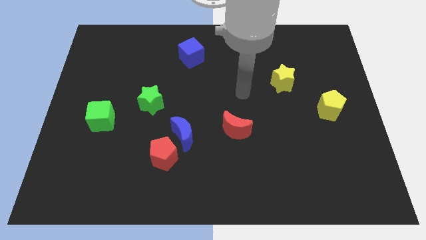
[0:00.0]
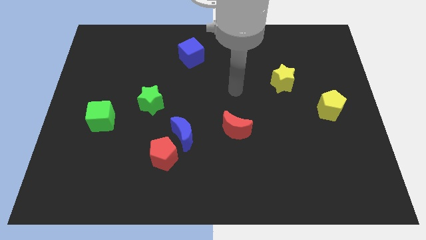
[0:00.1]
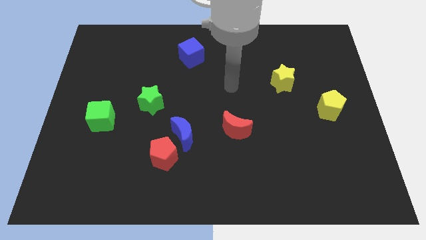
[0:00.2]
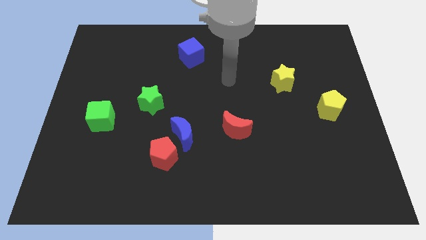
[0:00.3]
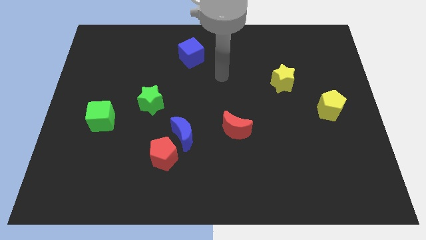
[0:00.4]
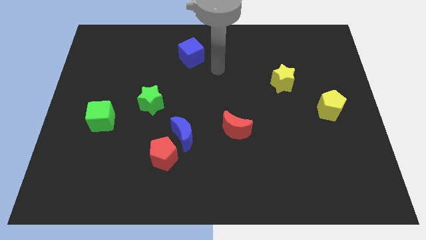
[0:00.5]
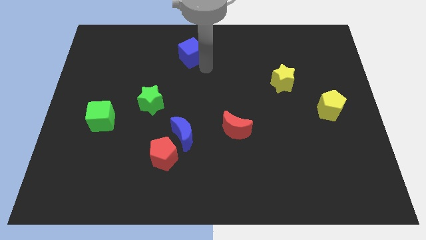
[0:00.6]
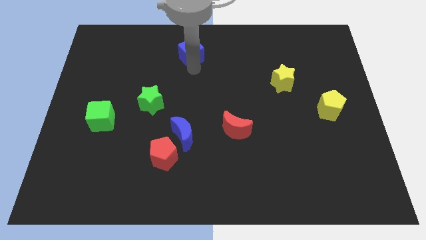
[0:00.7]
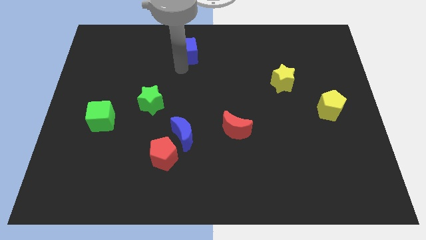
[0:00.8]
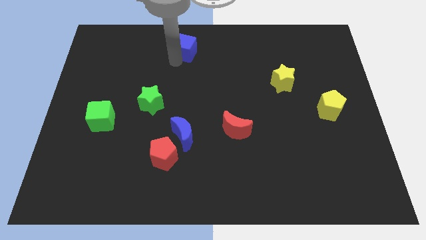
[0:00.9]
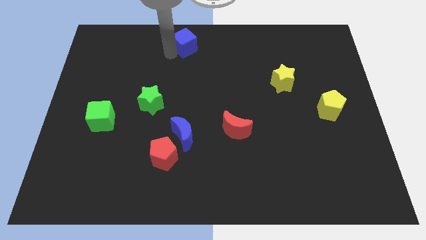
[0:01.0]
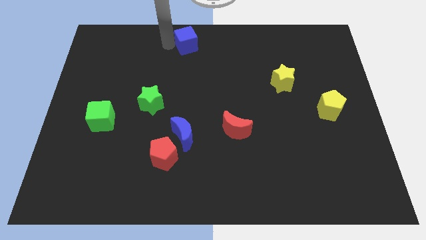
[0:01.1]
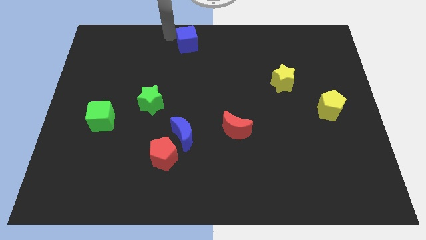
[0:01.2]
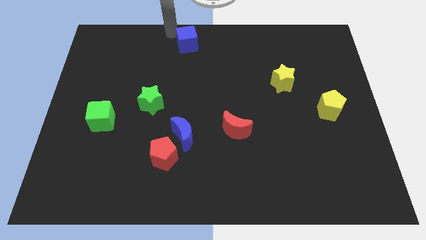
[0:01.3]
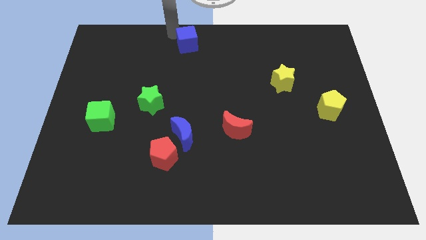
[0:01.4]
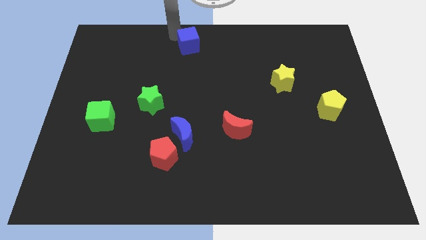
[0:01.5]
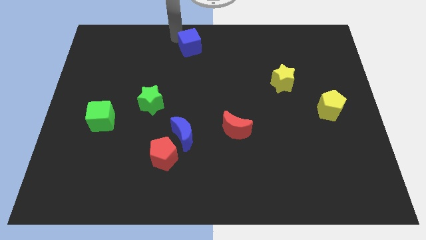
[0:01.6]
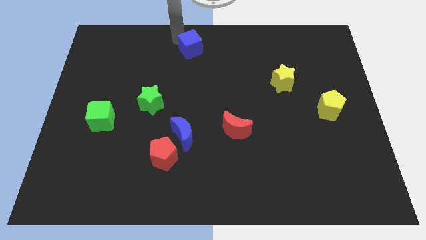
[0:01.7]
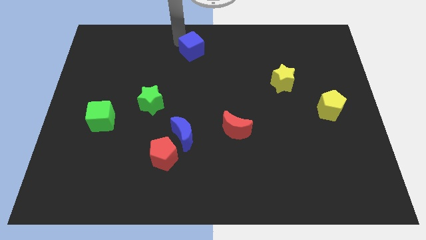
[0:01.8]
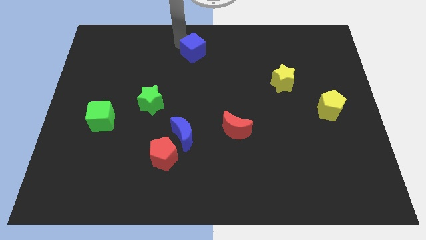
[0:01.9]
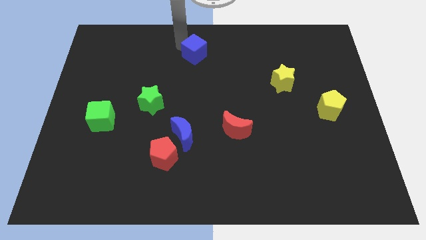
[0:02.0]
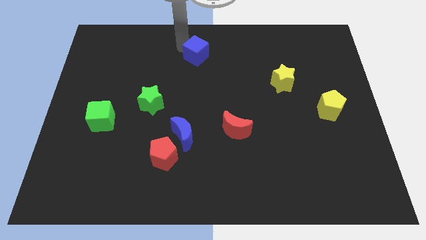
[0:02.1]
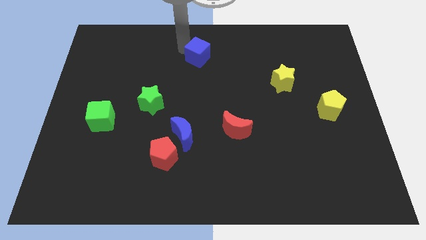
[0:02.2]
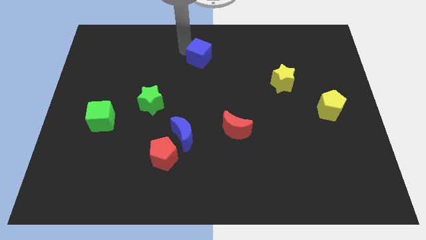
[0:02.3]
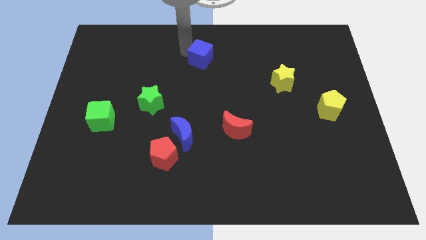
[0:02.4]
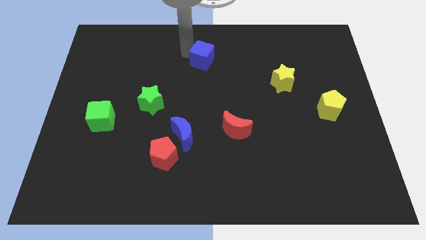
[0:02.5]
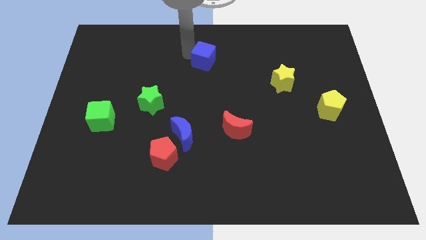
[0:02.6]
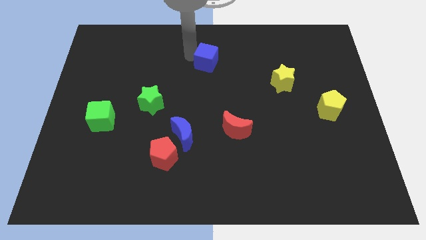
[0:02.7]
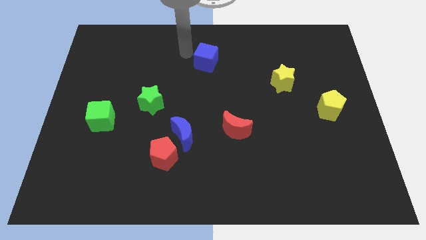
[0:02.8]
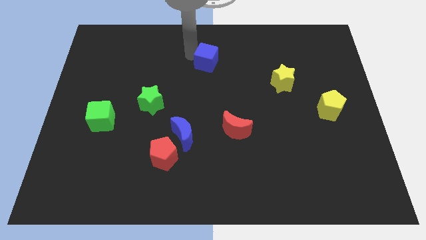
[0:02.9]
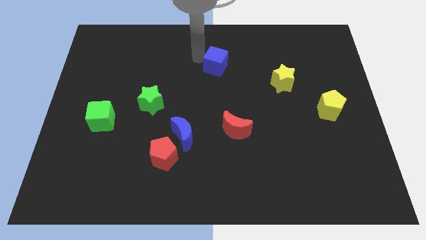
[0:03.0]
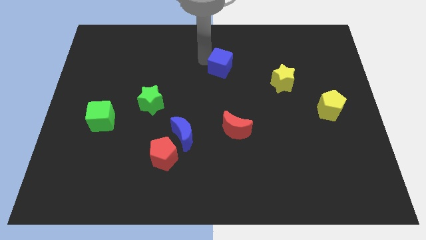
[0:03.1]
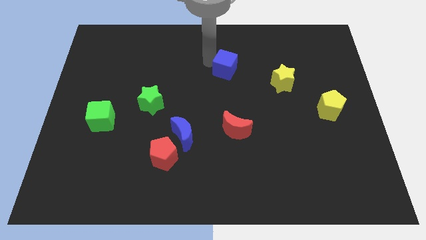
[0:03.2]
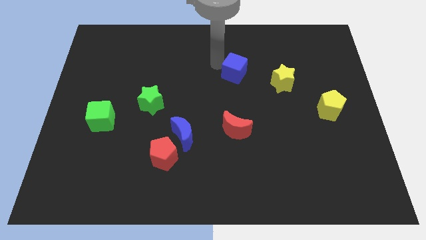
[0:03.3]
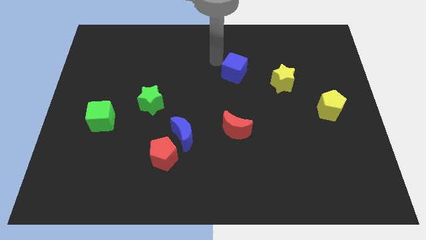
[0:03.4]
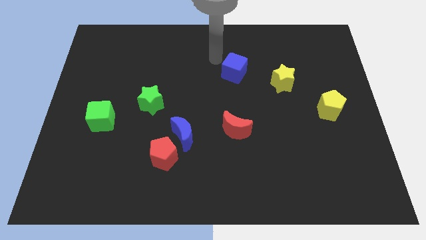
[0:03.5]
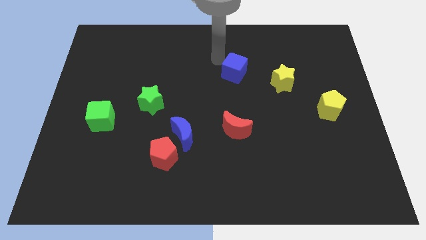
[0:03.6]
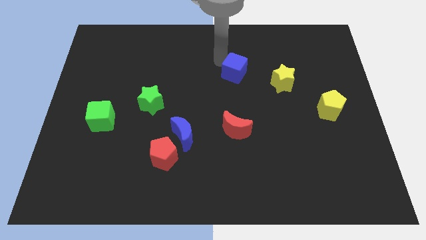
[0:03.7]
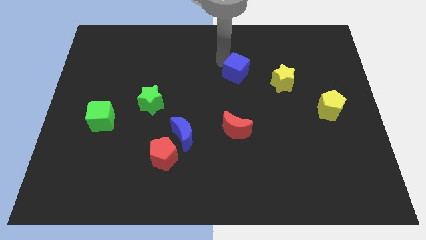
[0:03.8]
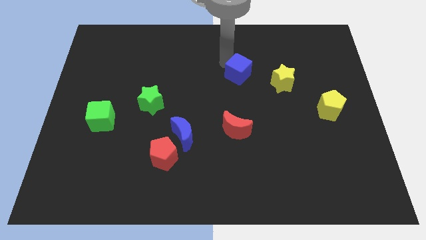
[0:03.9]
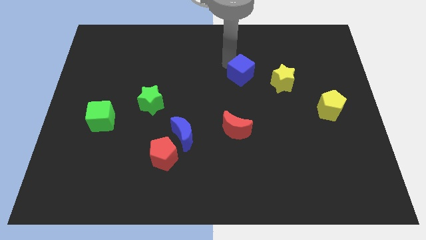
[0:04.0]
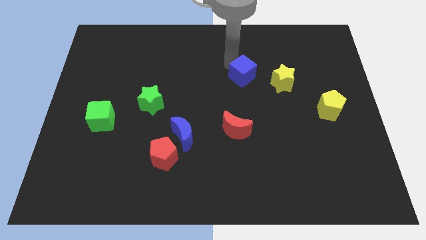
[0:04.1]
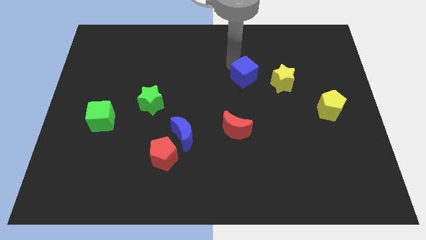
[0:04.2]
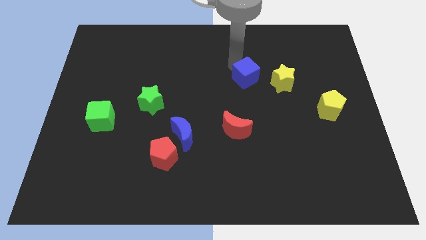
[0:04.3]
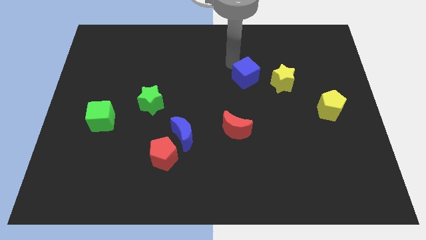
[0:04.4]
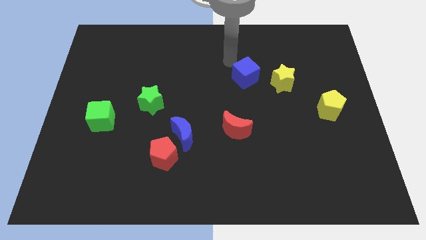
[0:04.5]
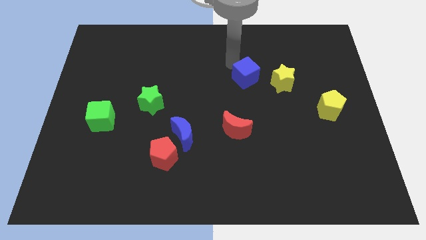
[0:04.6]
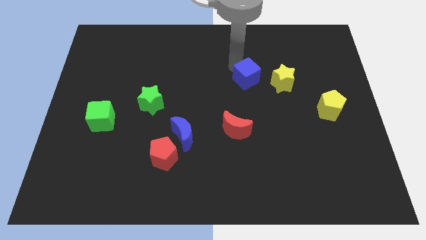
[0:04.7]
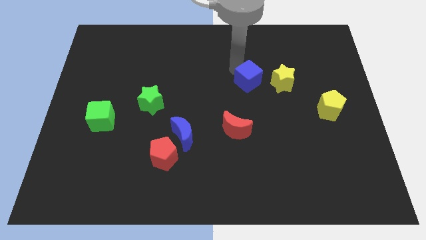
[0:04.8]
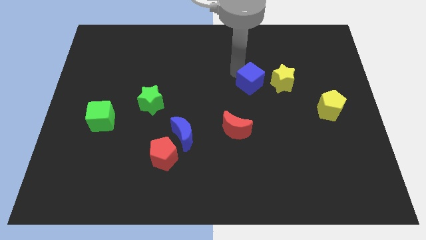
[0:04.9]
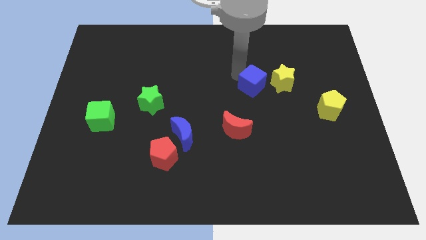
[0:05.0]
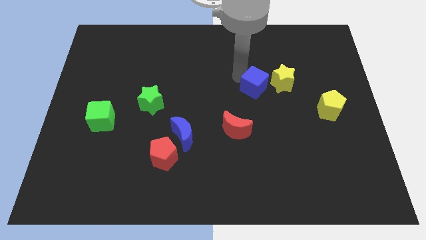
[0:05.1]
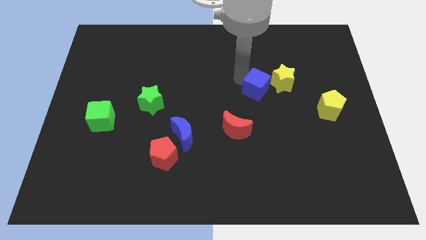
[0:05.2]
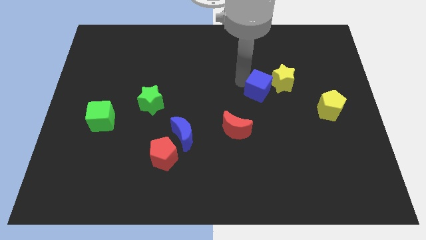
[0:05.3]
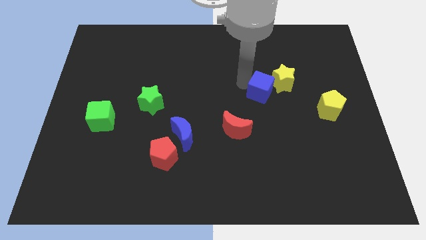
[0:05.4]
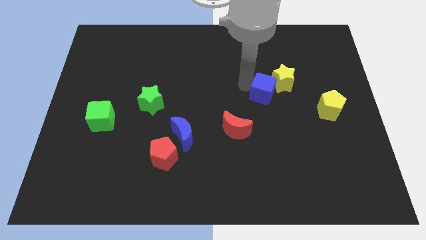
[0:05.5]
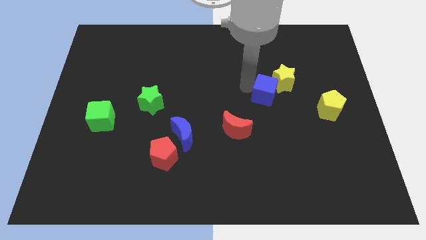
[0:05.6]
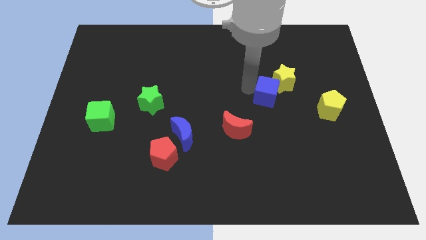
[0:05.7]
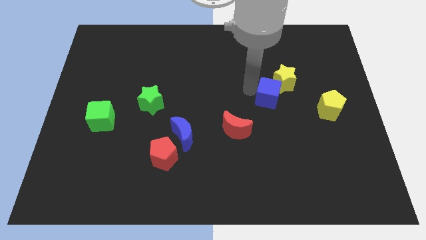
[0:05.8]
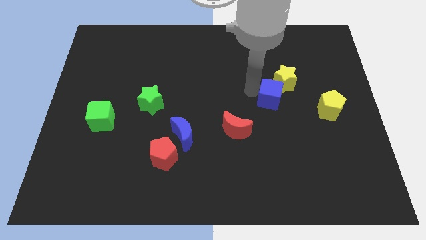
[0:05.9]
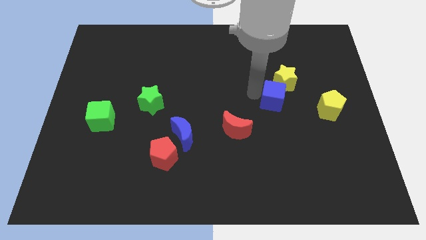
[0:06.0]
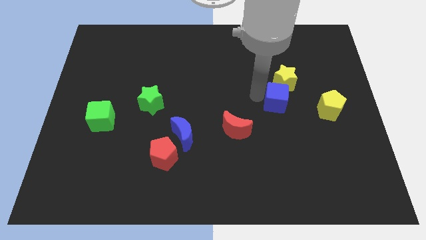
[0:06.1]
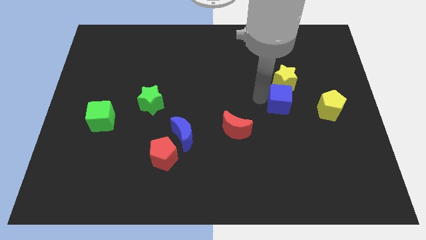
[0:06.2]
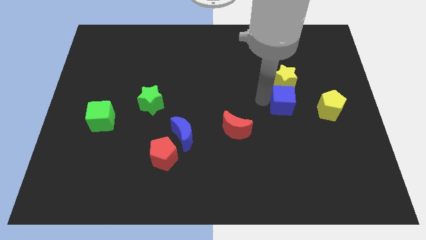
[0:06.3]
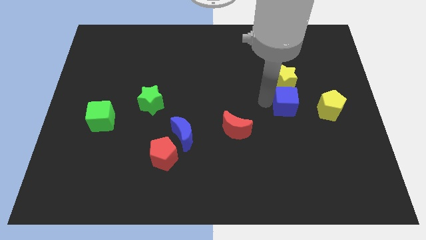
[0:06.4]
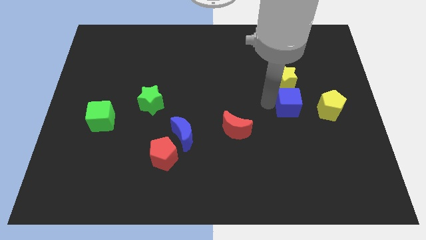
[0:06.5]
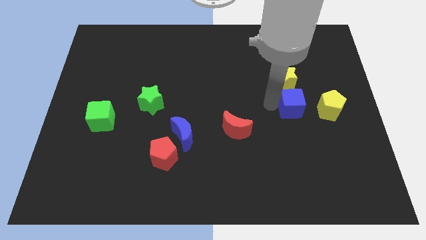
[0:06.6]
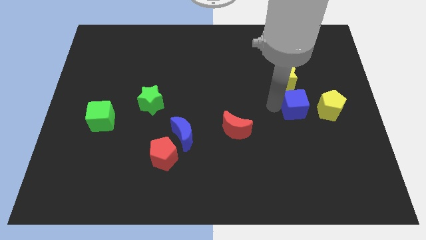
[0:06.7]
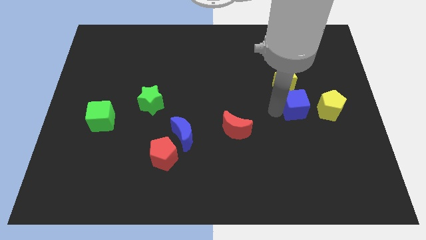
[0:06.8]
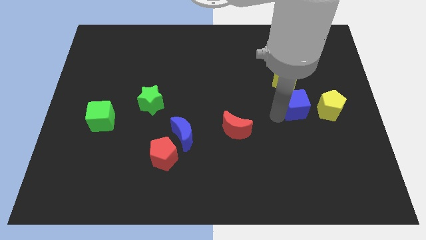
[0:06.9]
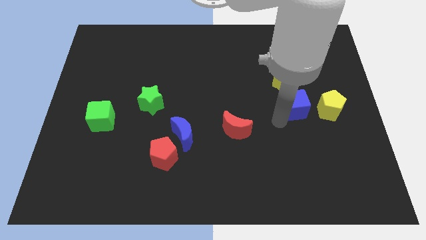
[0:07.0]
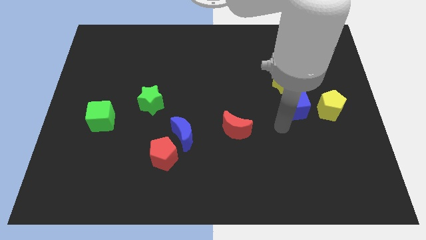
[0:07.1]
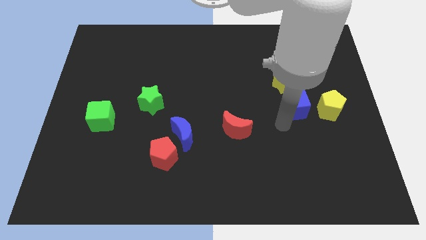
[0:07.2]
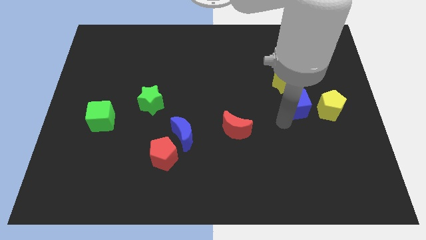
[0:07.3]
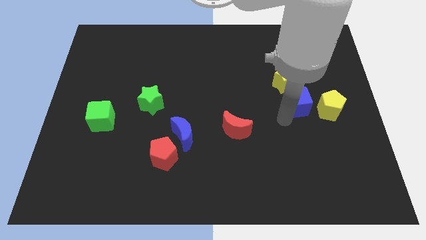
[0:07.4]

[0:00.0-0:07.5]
move the blue cube to the top left of the yellow pentagon

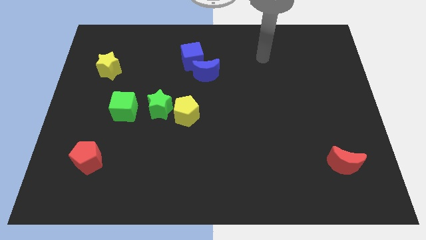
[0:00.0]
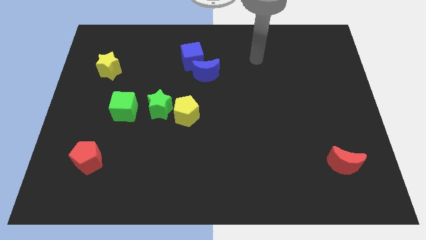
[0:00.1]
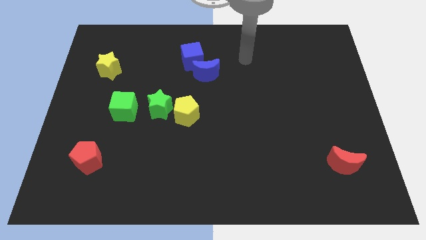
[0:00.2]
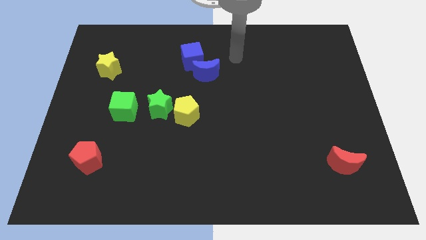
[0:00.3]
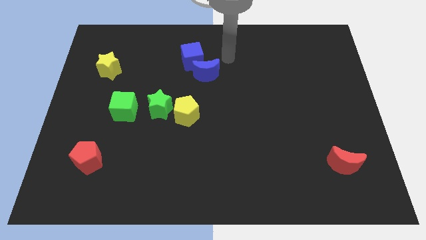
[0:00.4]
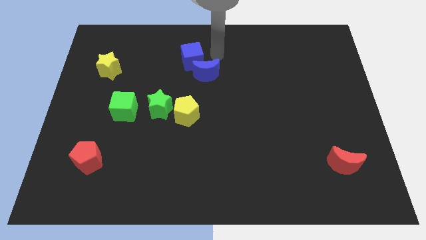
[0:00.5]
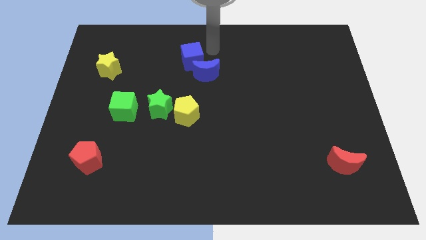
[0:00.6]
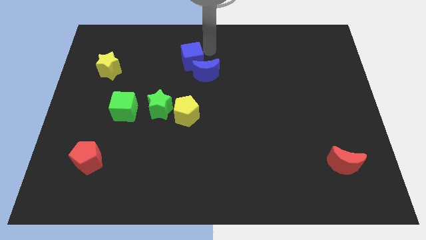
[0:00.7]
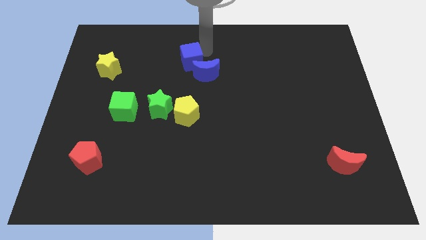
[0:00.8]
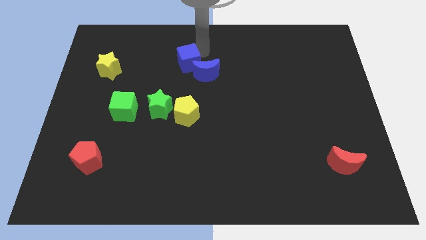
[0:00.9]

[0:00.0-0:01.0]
push the blue cube to the left of the blue moon
